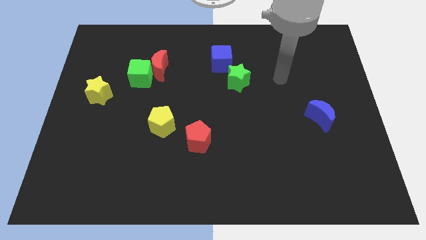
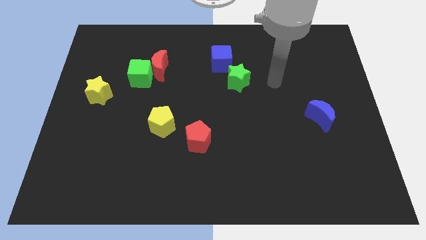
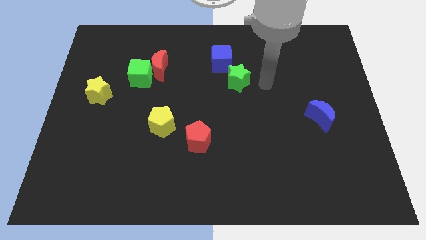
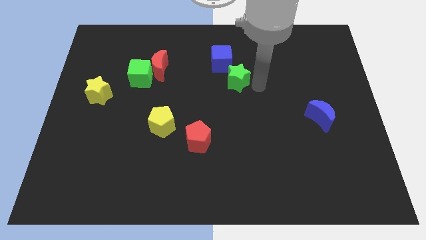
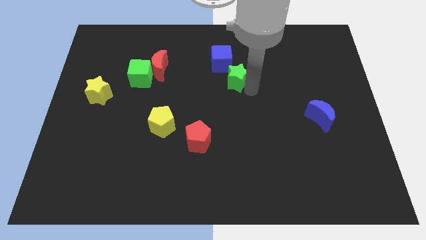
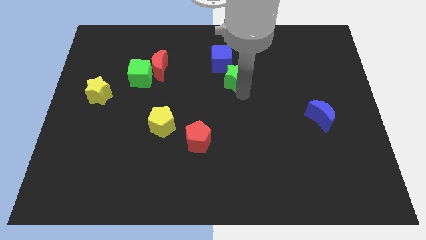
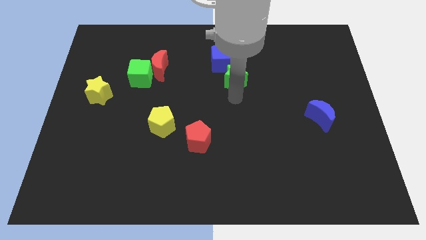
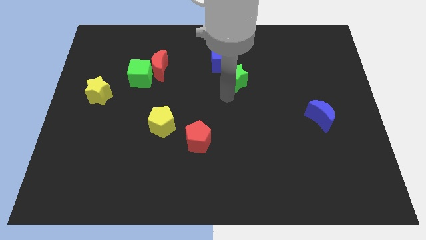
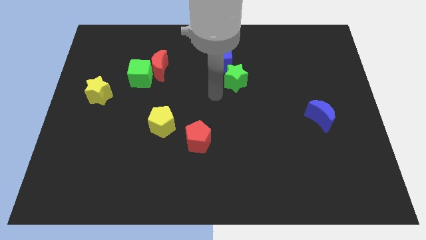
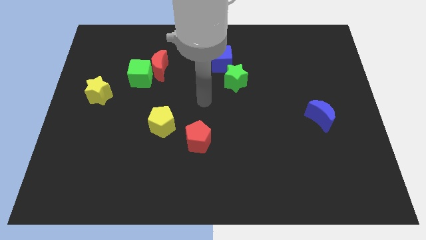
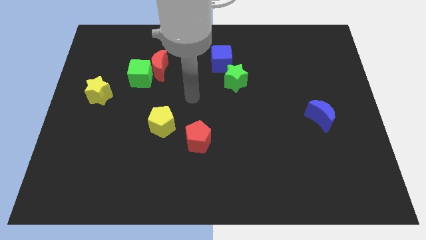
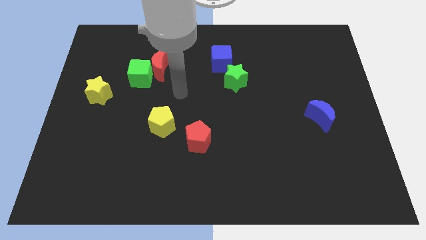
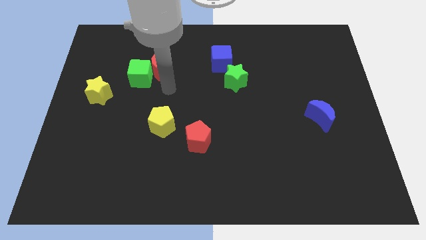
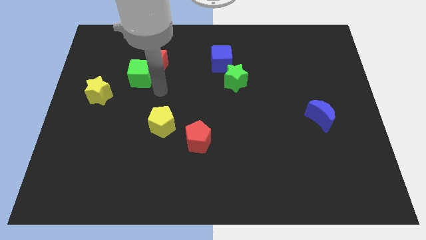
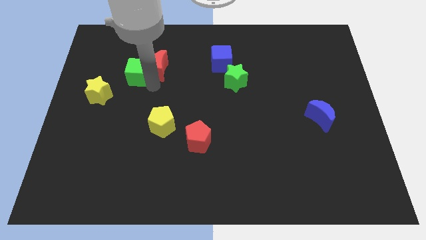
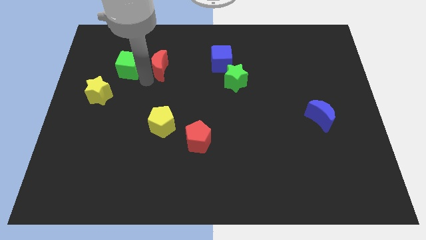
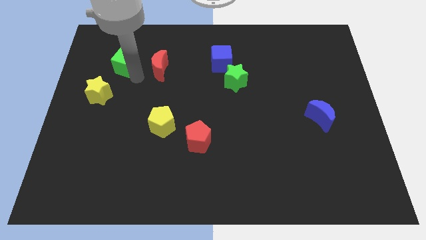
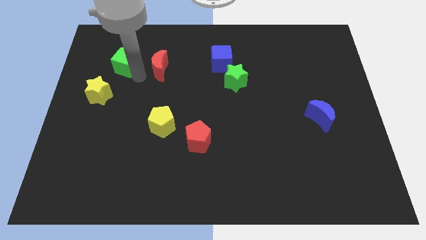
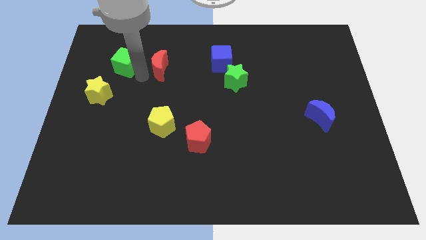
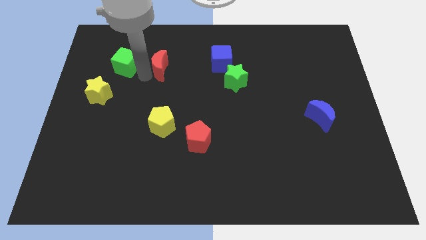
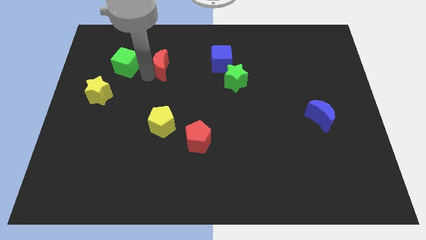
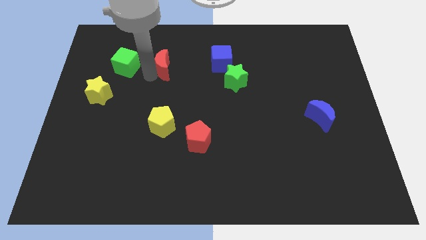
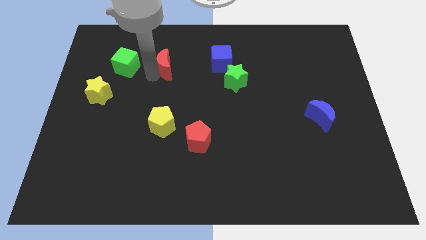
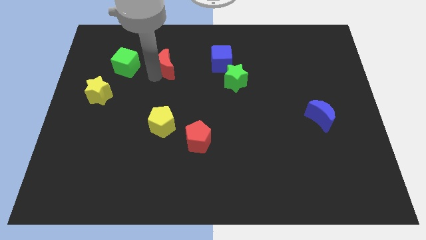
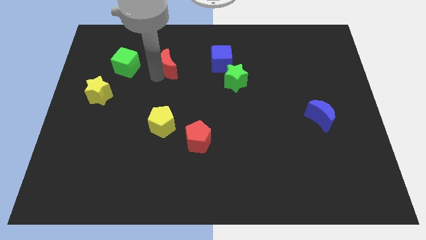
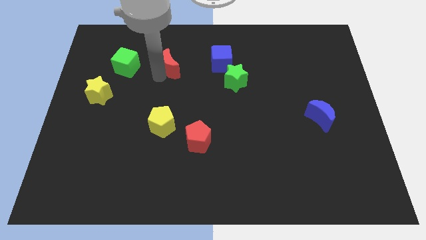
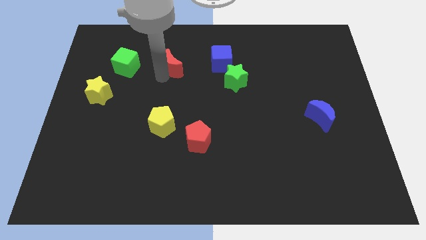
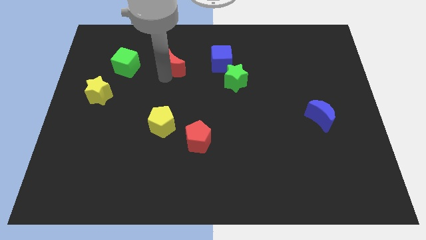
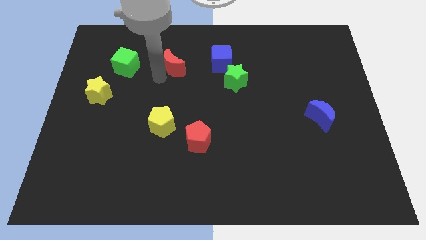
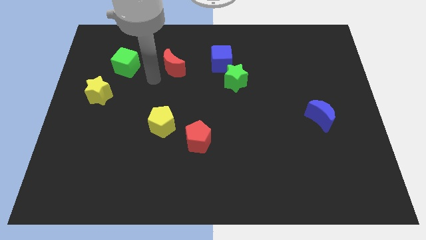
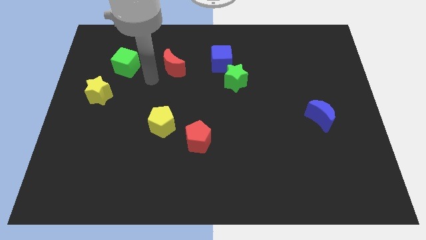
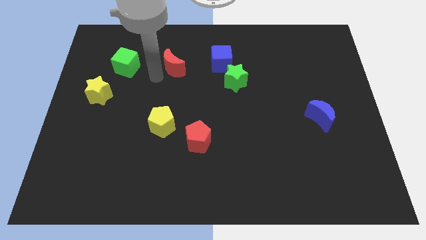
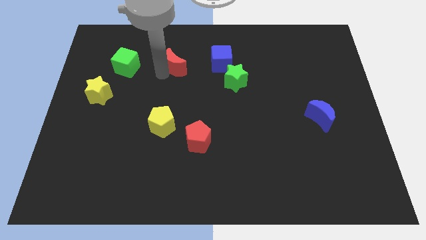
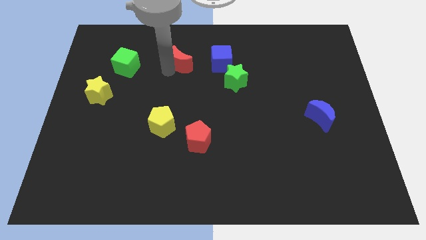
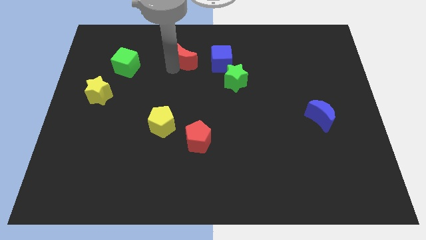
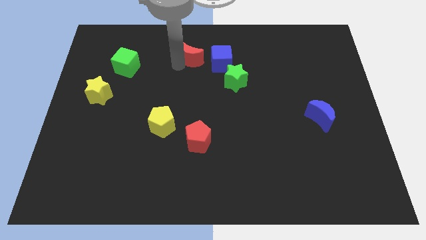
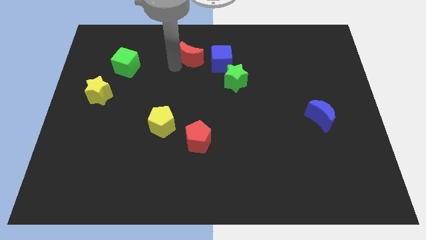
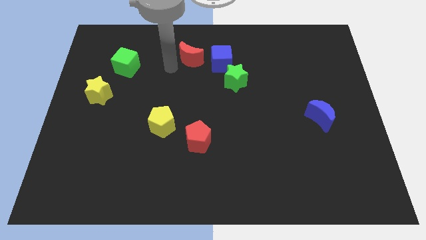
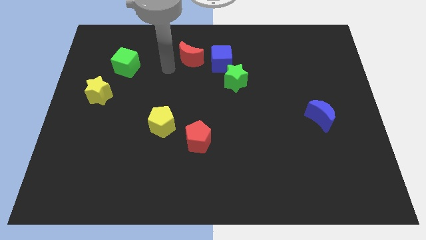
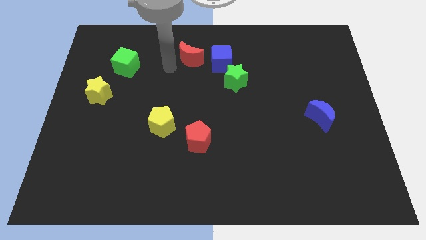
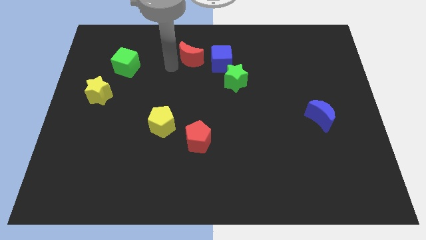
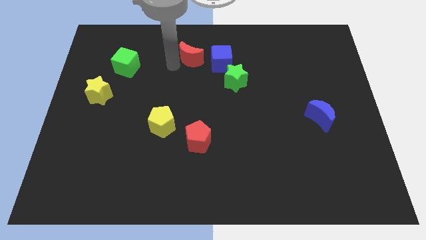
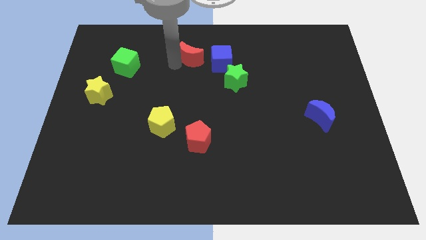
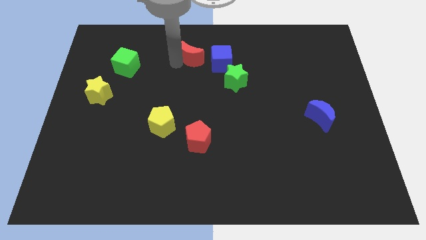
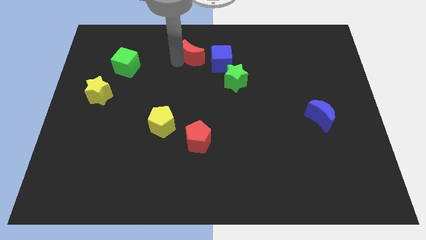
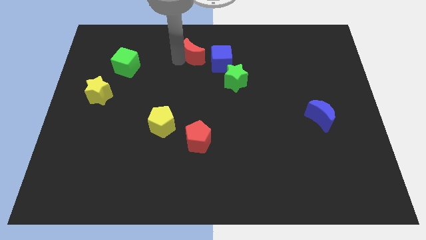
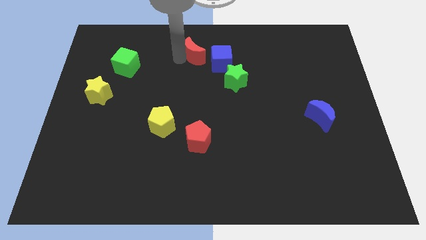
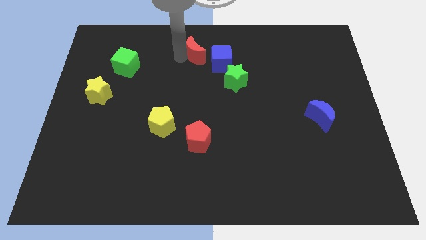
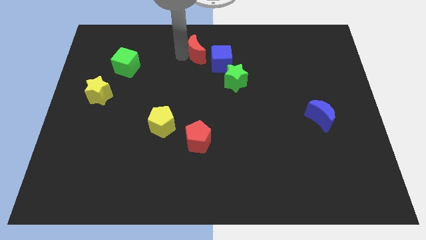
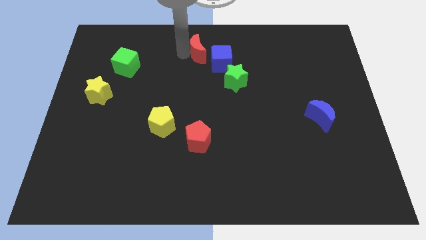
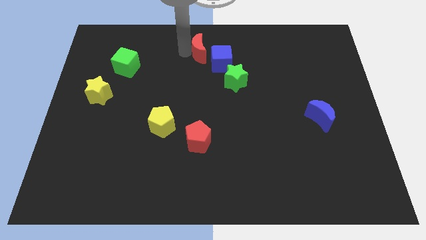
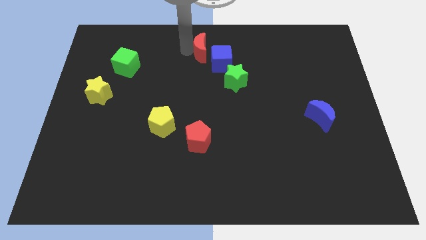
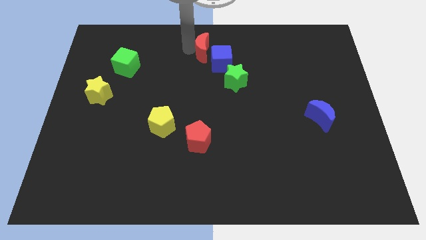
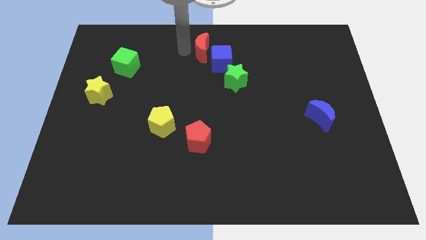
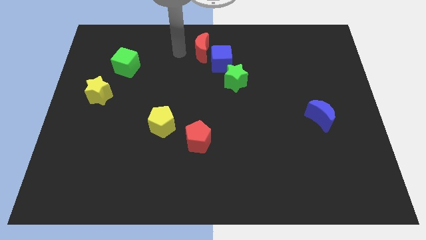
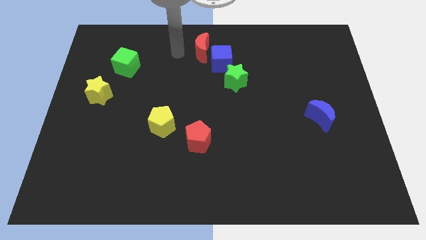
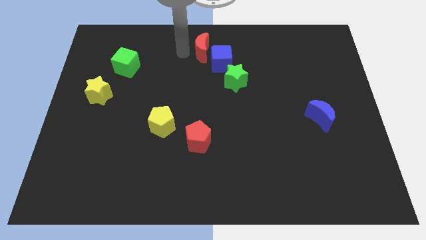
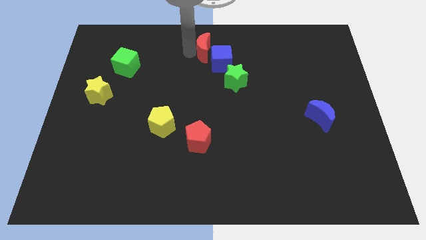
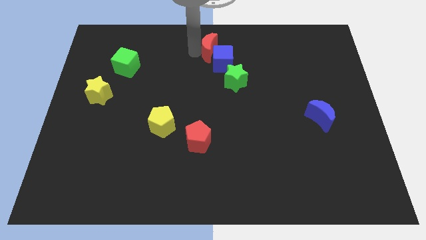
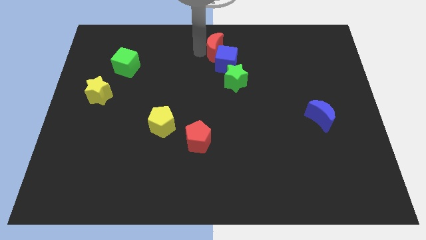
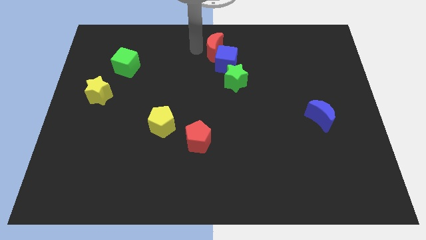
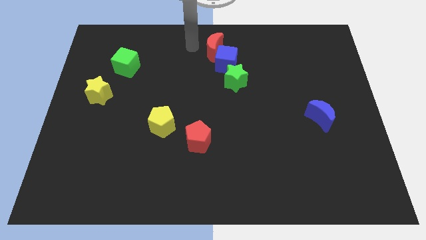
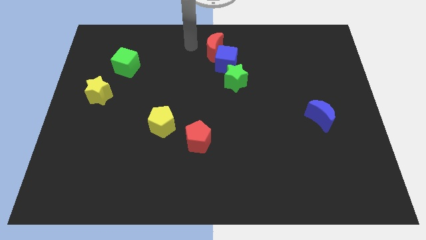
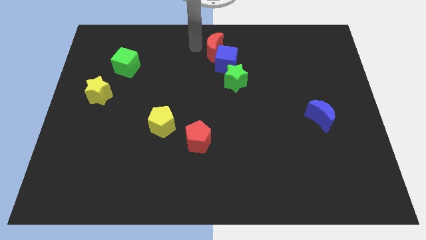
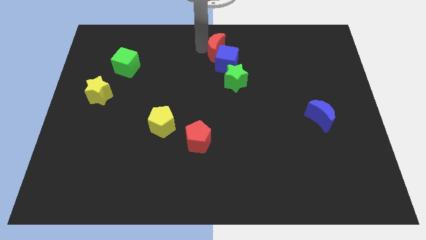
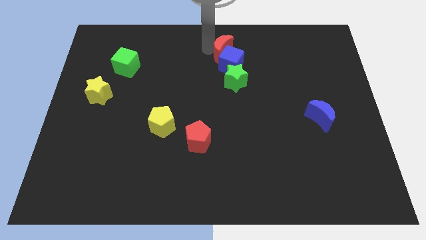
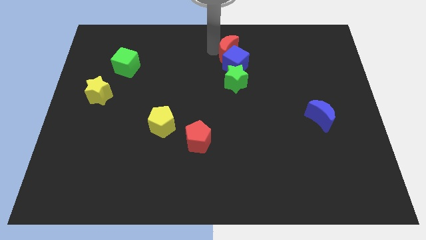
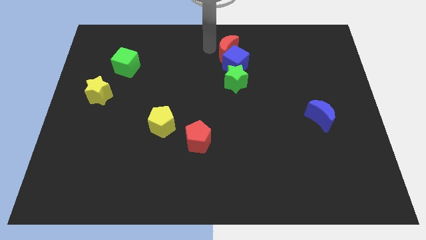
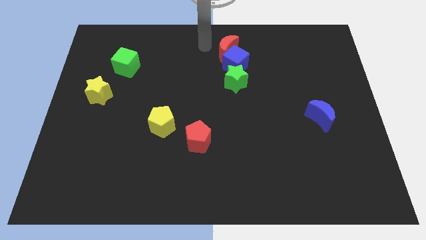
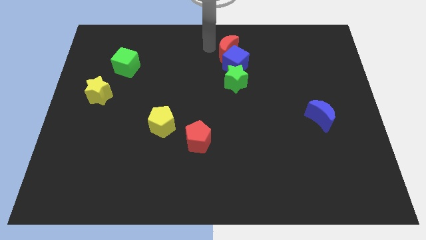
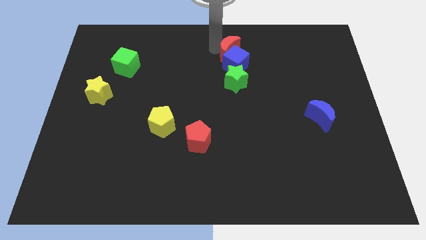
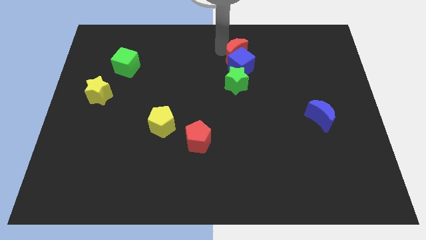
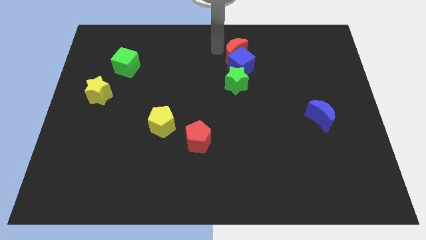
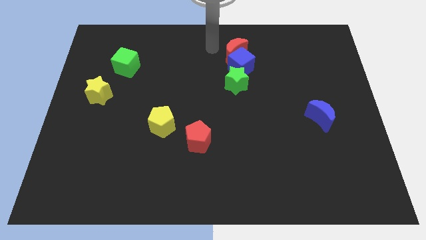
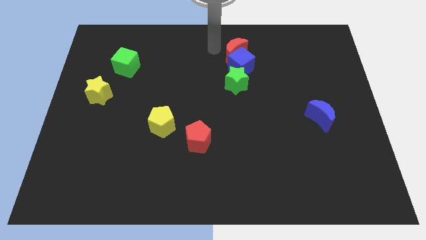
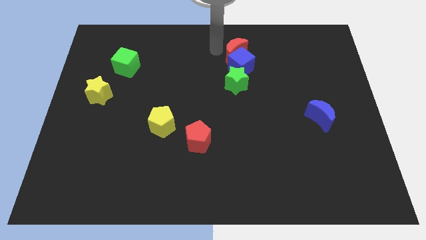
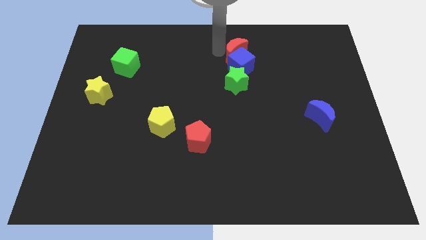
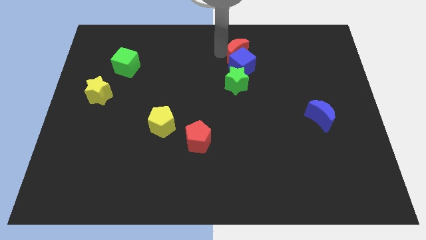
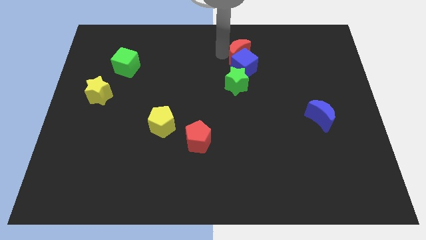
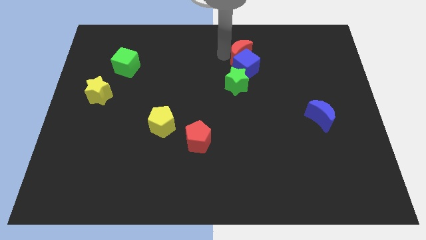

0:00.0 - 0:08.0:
move the red moon to the right

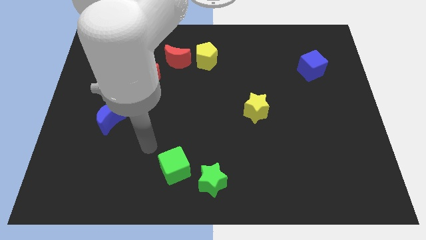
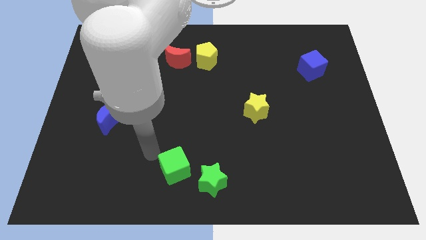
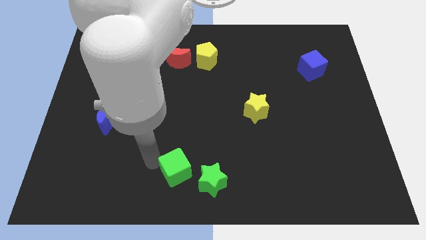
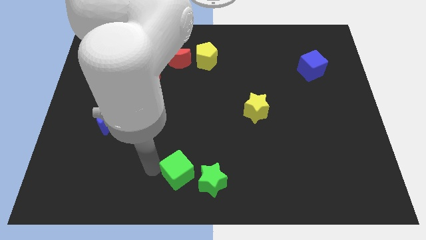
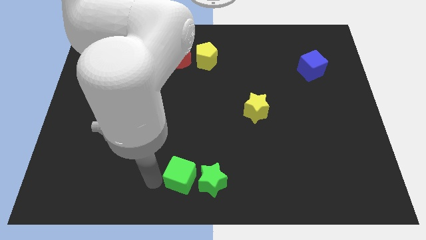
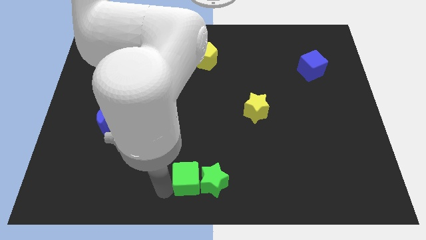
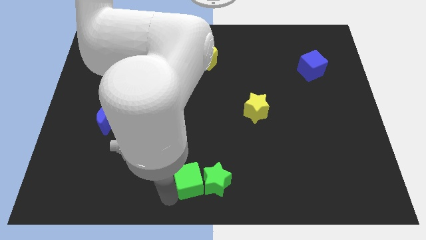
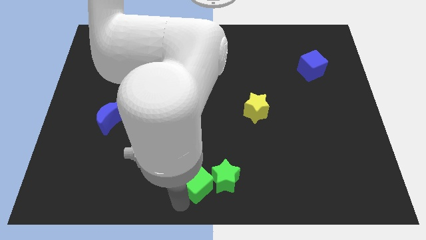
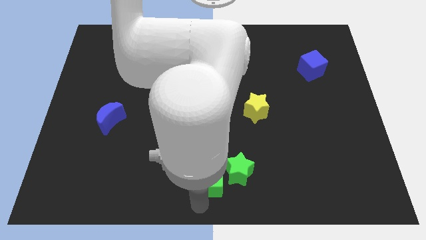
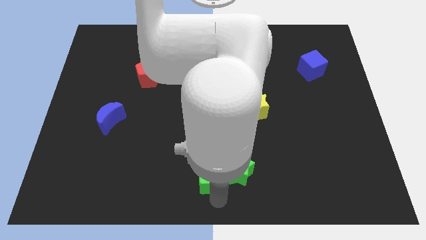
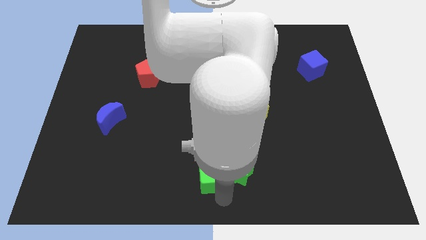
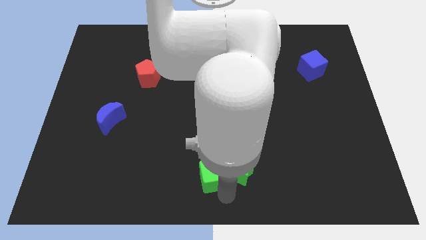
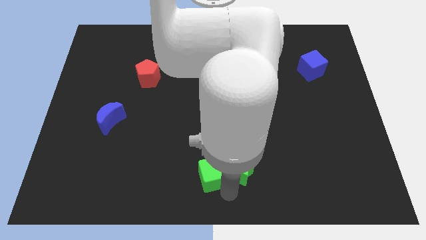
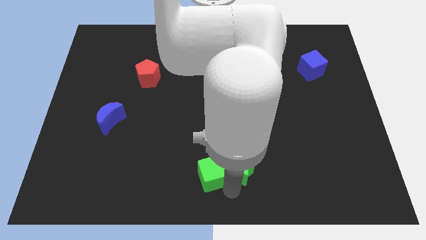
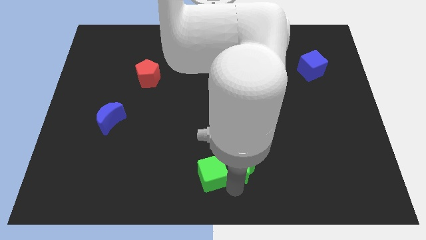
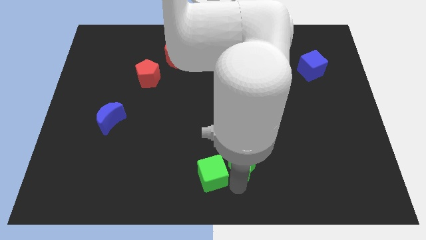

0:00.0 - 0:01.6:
move the green star diagonally up and to the right slightly
